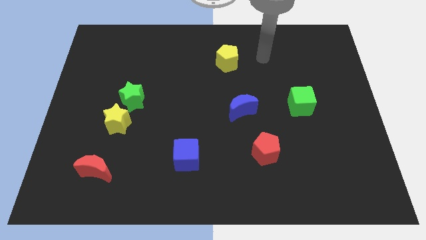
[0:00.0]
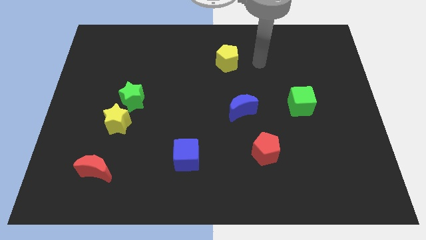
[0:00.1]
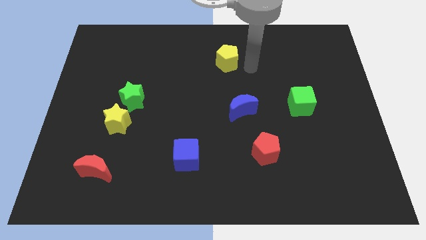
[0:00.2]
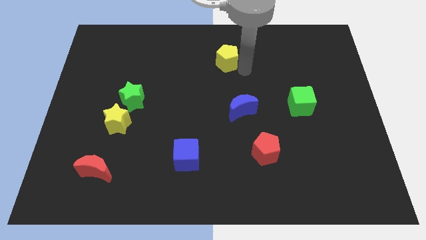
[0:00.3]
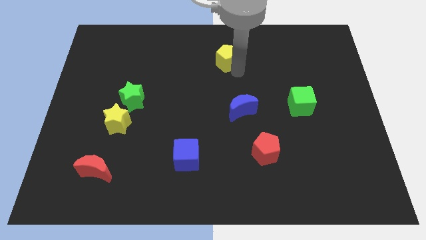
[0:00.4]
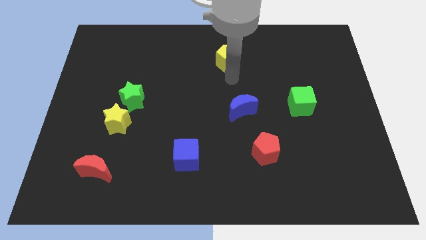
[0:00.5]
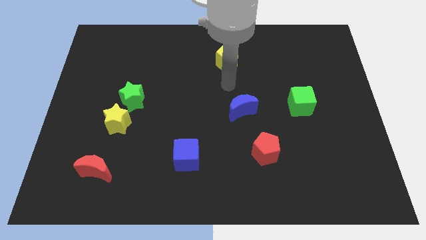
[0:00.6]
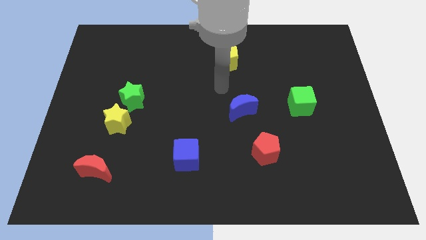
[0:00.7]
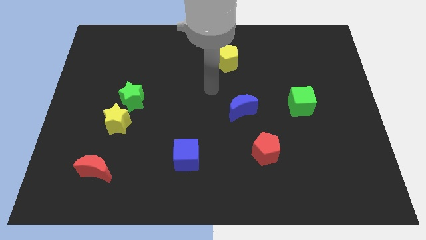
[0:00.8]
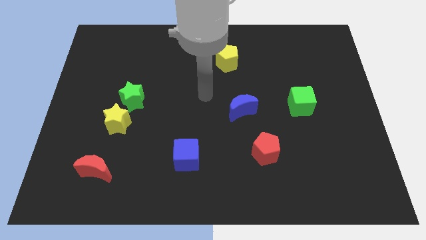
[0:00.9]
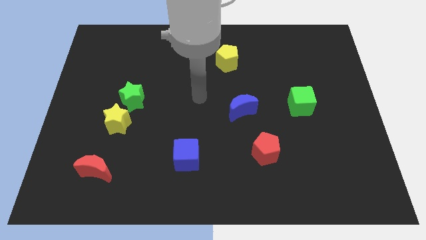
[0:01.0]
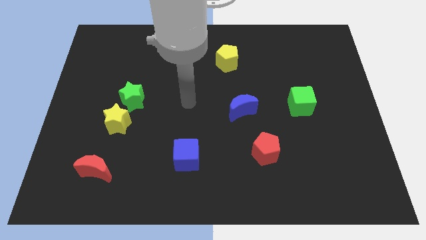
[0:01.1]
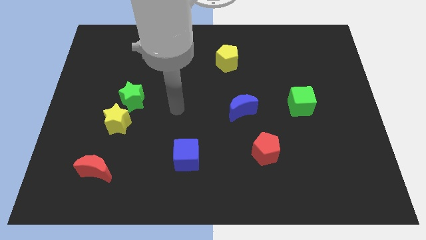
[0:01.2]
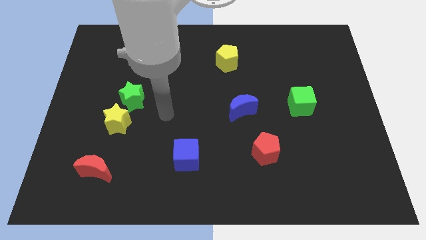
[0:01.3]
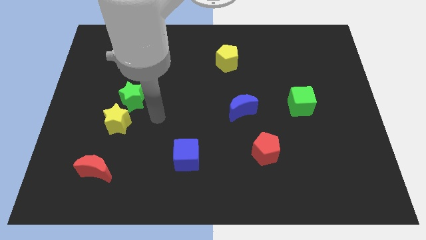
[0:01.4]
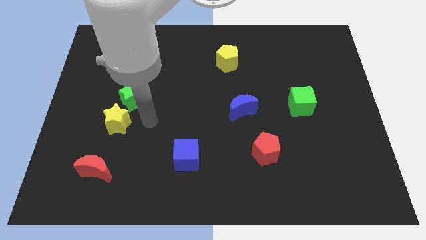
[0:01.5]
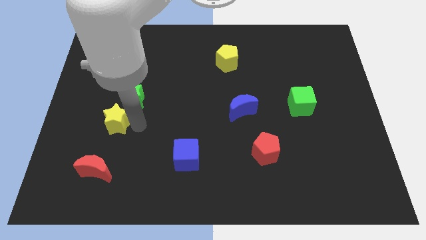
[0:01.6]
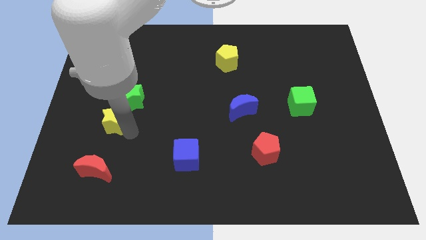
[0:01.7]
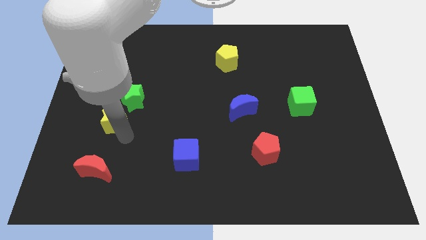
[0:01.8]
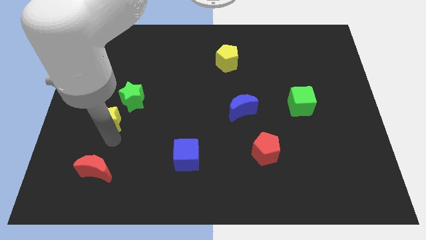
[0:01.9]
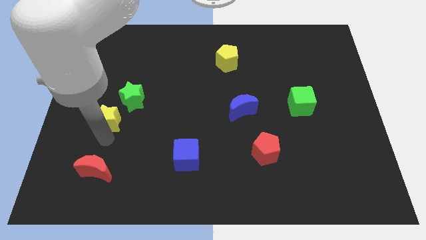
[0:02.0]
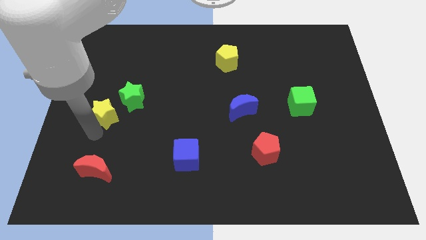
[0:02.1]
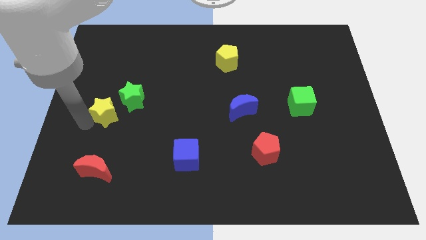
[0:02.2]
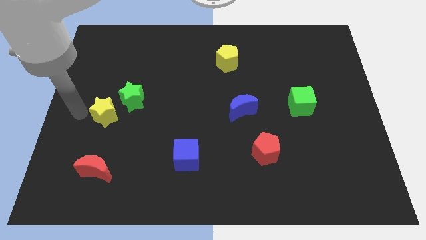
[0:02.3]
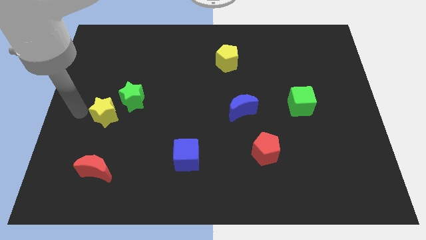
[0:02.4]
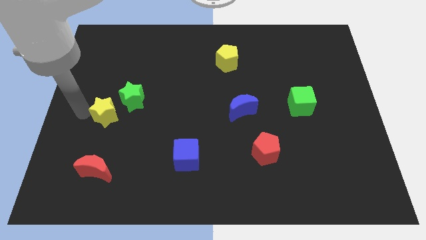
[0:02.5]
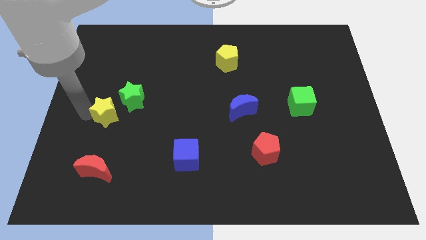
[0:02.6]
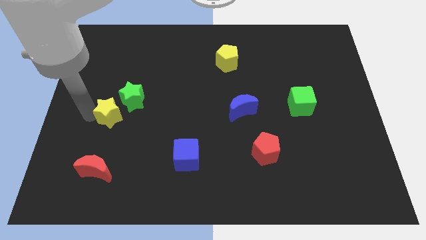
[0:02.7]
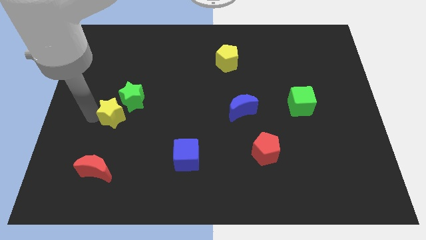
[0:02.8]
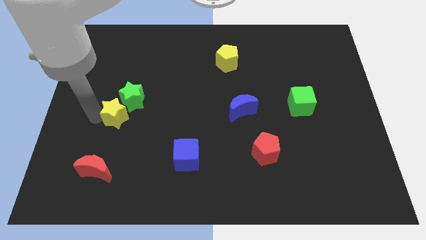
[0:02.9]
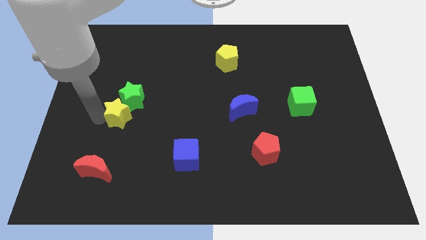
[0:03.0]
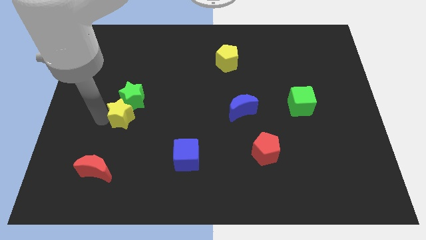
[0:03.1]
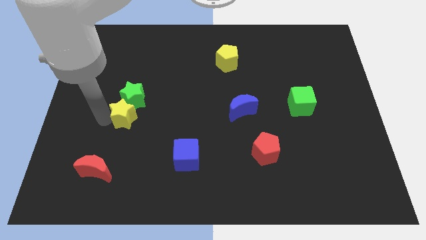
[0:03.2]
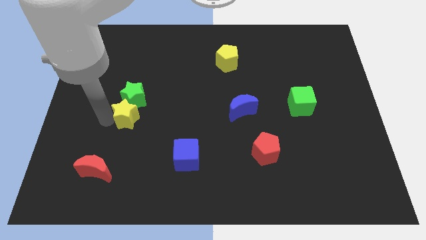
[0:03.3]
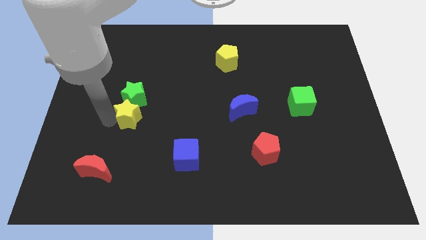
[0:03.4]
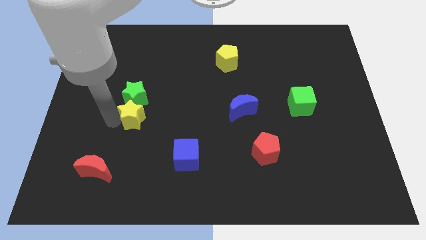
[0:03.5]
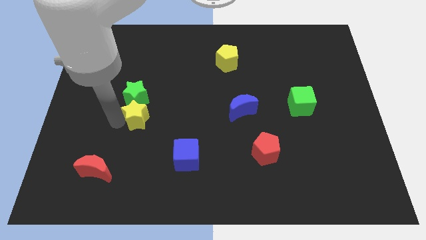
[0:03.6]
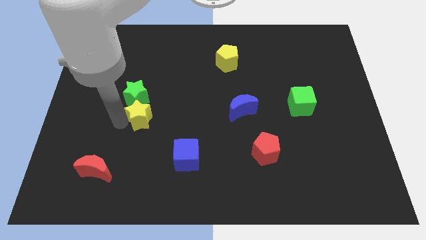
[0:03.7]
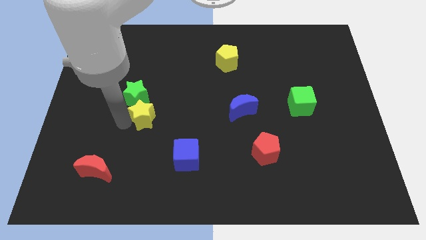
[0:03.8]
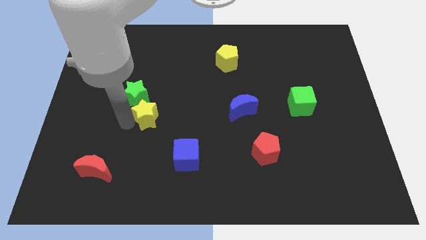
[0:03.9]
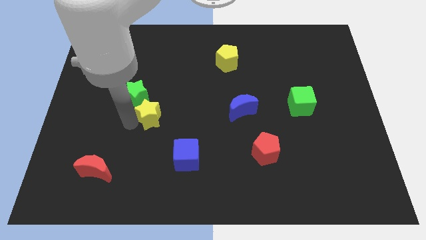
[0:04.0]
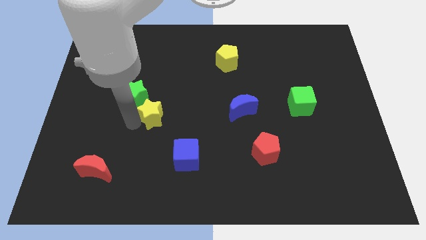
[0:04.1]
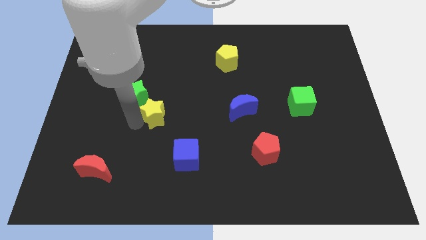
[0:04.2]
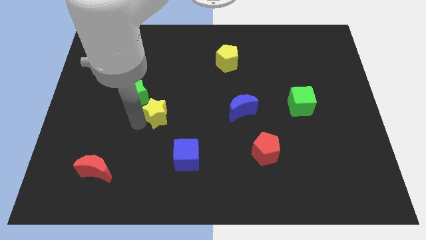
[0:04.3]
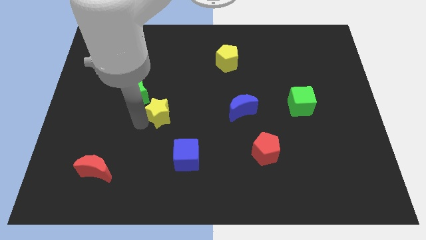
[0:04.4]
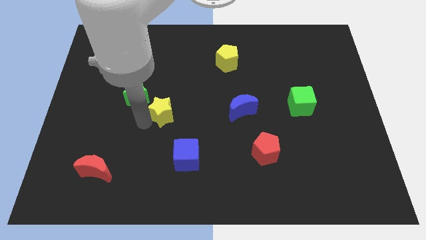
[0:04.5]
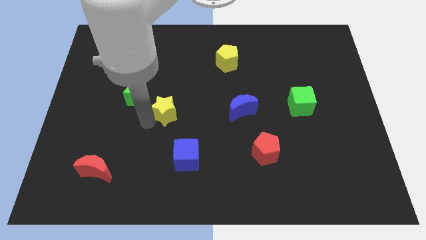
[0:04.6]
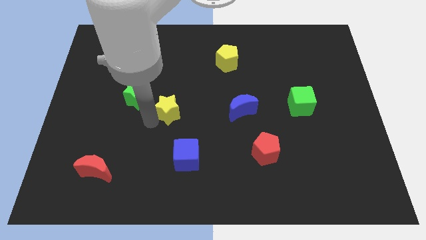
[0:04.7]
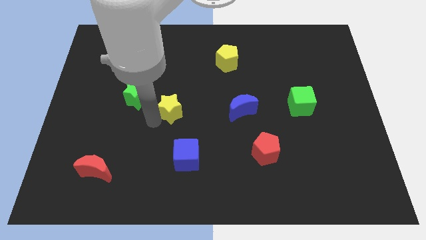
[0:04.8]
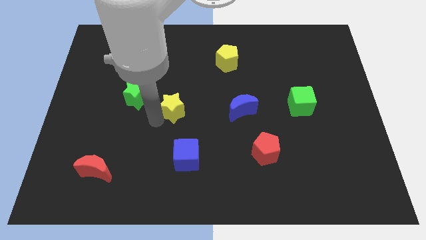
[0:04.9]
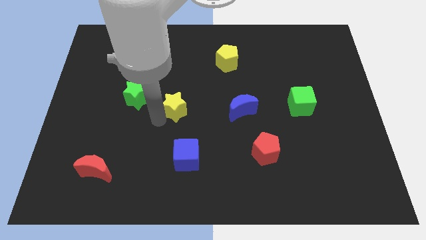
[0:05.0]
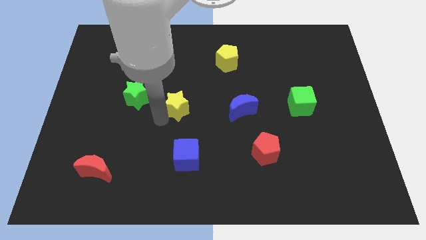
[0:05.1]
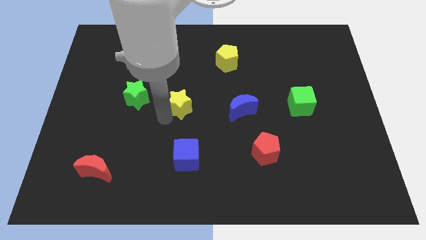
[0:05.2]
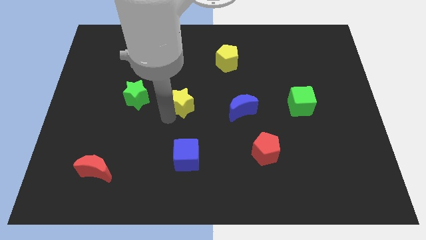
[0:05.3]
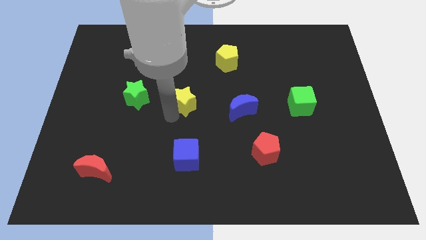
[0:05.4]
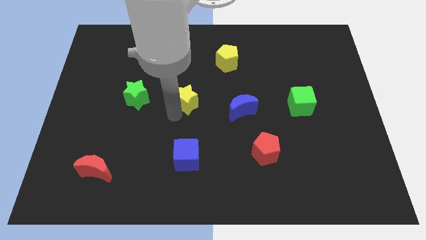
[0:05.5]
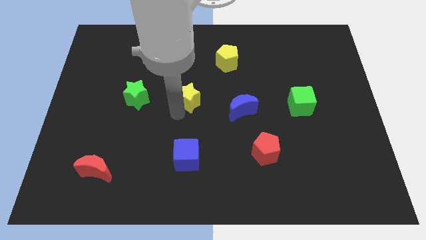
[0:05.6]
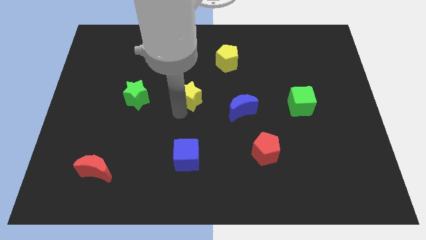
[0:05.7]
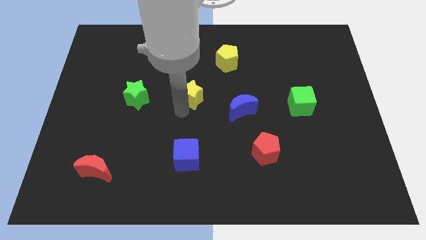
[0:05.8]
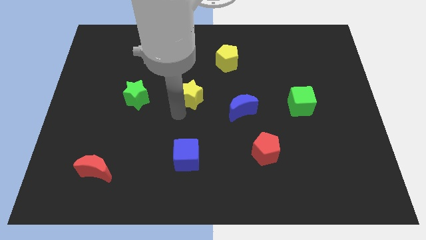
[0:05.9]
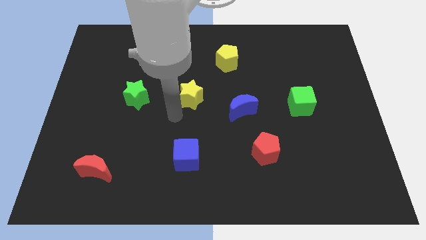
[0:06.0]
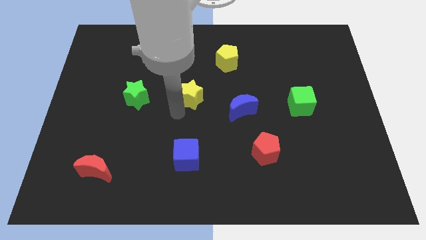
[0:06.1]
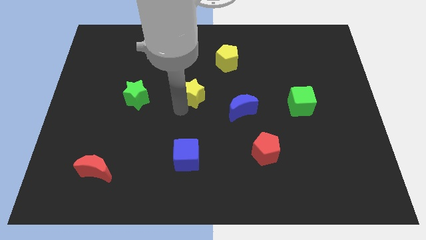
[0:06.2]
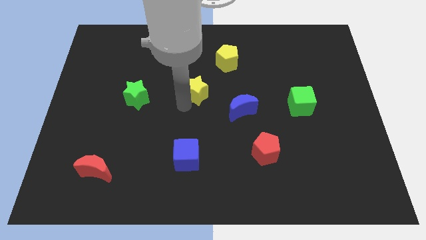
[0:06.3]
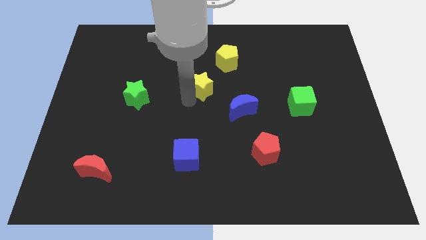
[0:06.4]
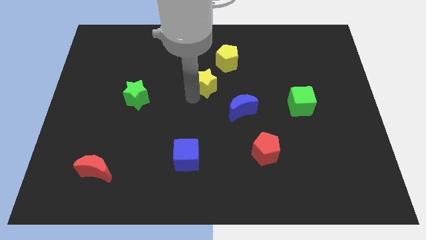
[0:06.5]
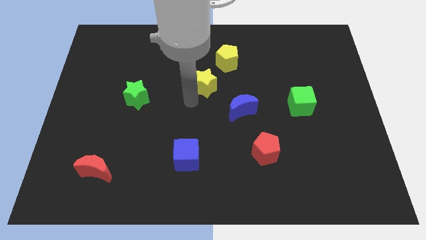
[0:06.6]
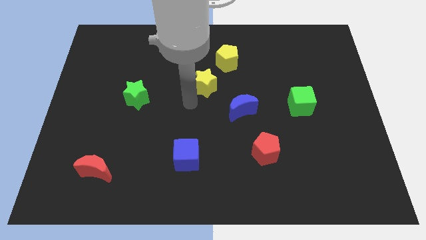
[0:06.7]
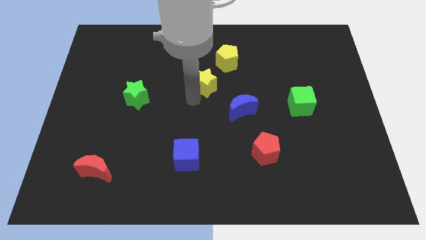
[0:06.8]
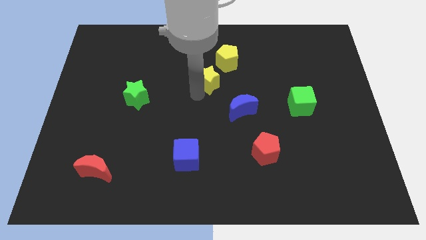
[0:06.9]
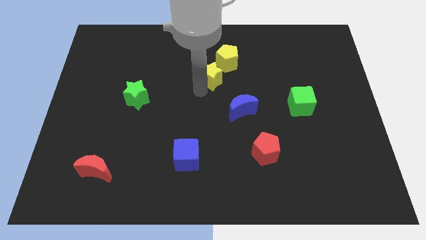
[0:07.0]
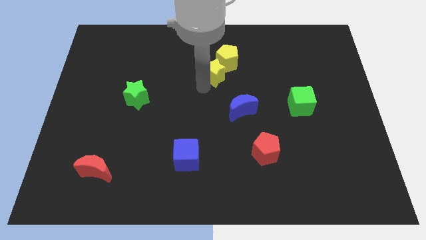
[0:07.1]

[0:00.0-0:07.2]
put the yellow star towards the yellow pentagon
